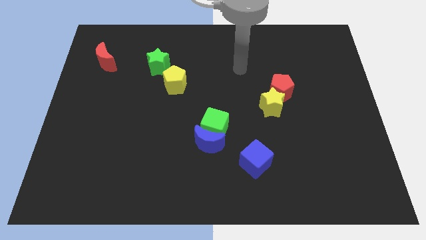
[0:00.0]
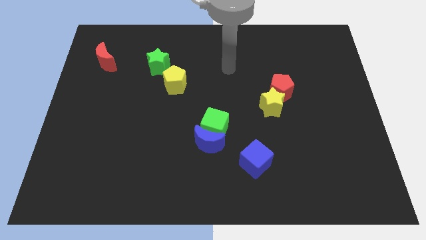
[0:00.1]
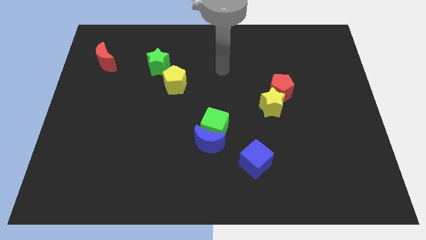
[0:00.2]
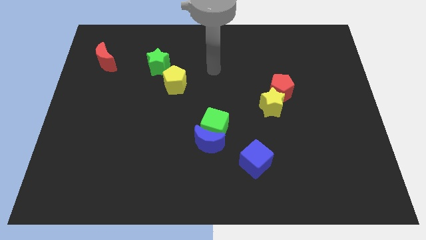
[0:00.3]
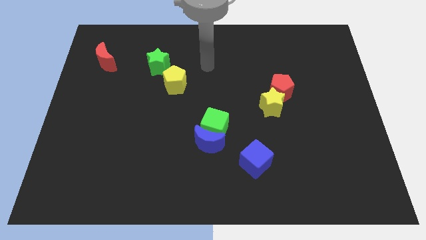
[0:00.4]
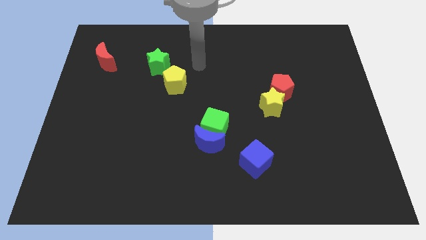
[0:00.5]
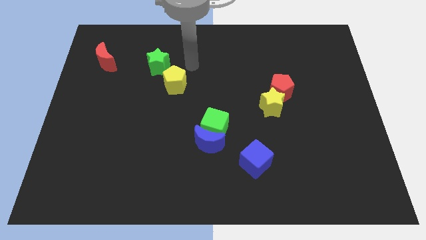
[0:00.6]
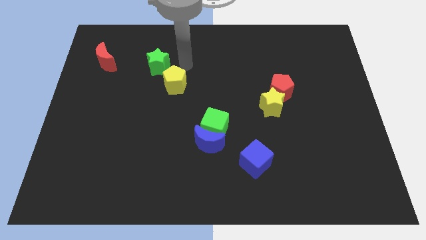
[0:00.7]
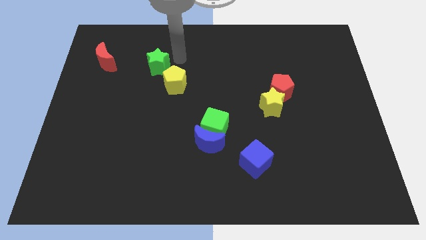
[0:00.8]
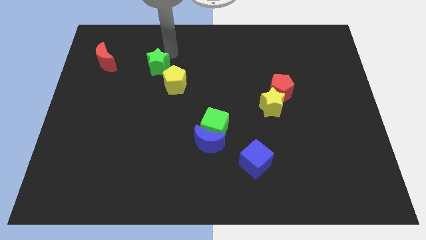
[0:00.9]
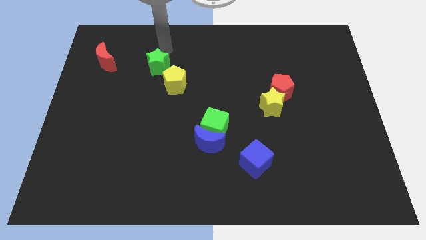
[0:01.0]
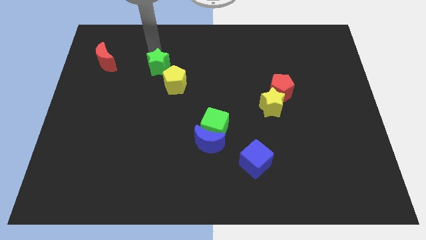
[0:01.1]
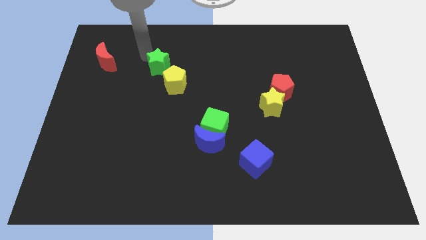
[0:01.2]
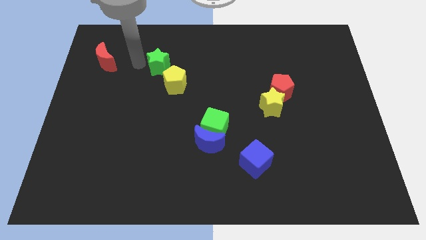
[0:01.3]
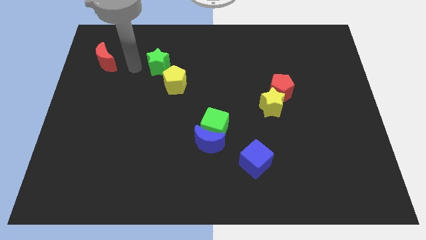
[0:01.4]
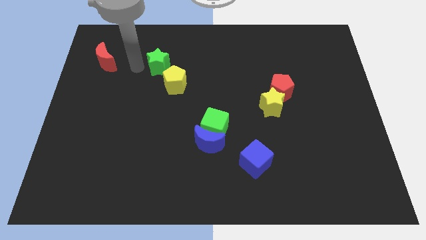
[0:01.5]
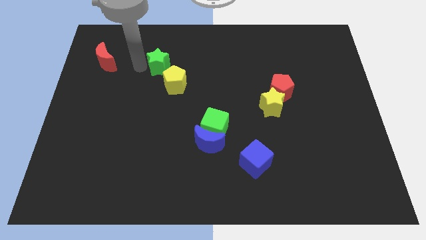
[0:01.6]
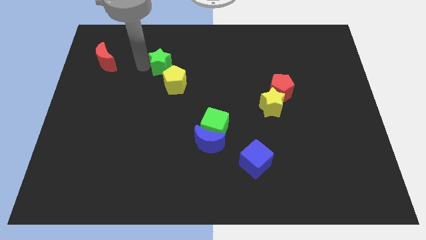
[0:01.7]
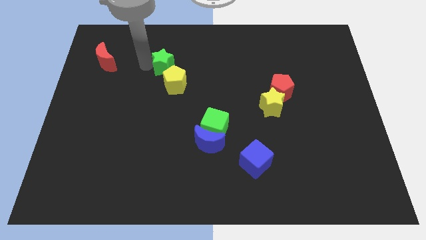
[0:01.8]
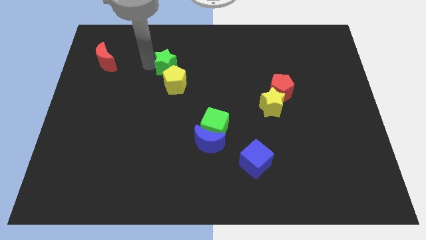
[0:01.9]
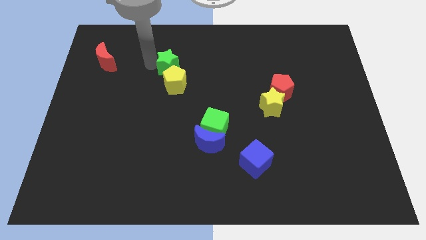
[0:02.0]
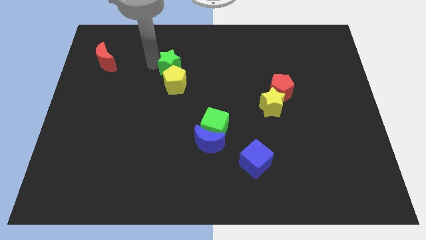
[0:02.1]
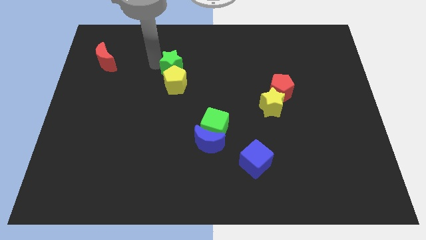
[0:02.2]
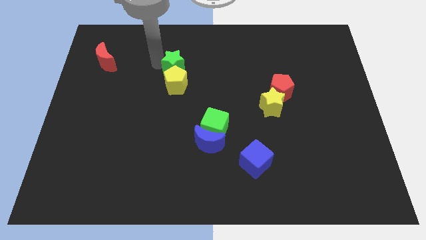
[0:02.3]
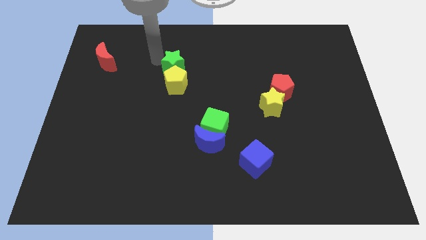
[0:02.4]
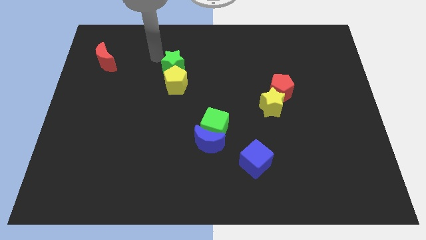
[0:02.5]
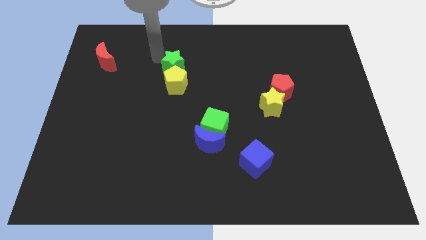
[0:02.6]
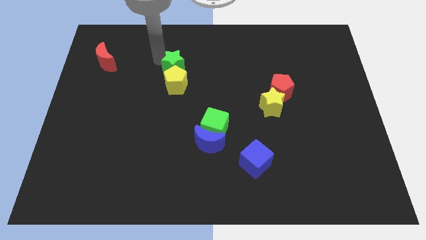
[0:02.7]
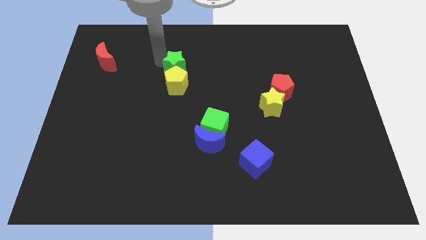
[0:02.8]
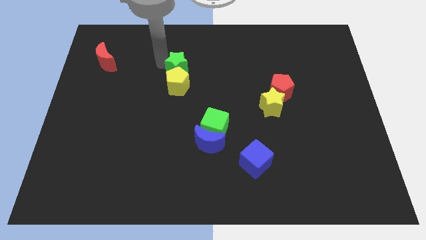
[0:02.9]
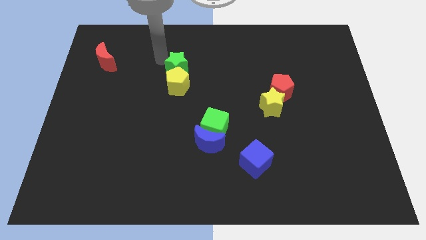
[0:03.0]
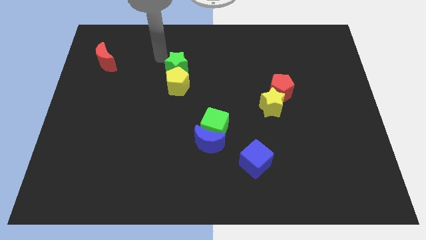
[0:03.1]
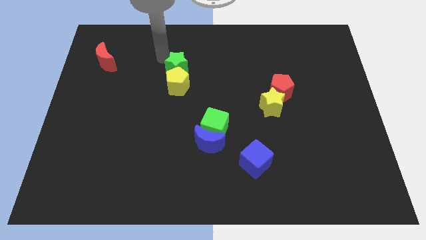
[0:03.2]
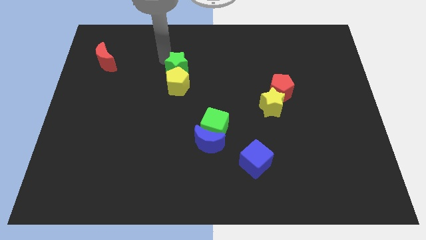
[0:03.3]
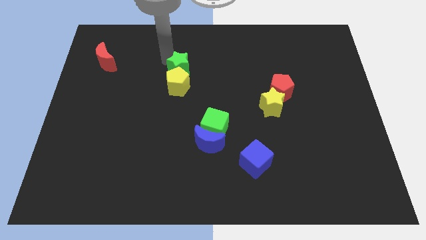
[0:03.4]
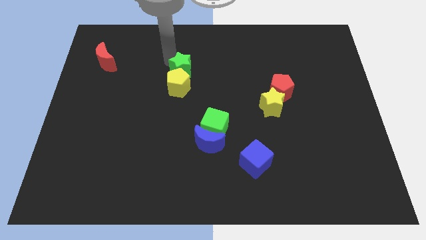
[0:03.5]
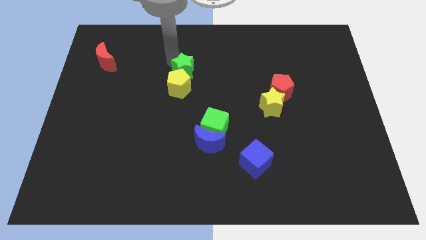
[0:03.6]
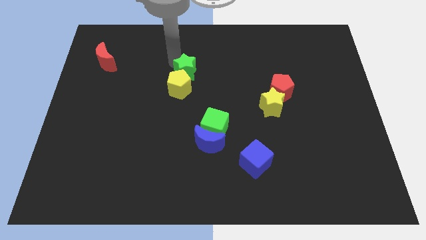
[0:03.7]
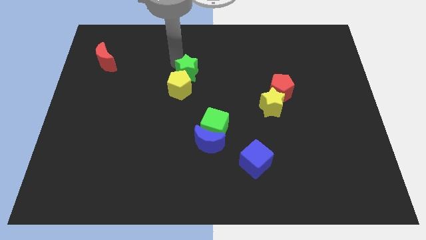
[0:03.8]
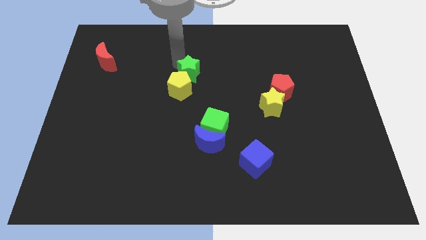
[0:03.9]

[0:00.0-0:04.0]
push the green star downwards and then to the right a bit

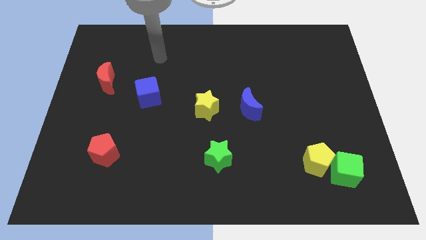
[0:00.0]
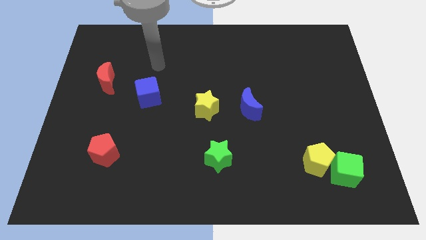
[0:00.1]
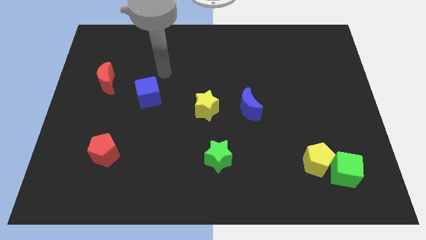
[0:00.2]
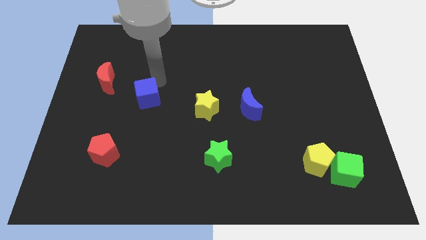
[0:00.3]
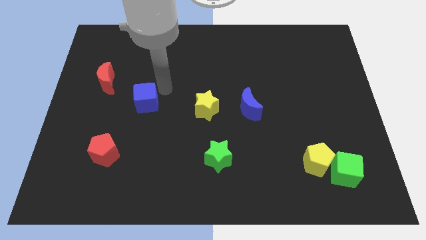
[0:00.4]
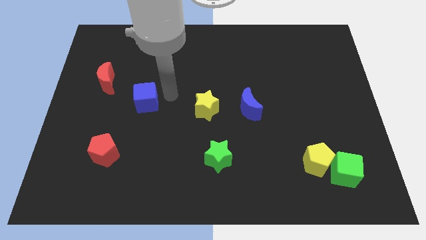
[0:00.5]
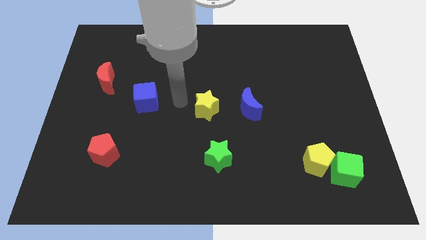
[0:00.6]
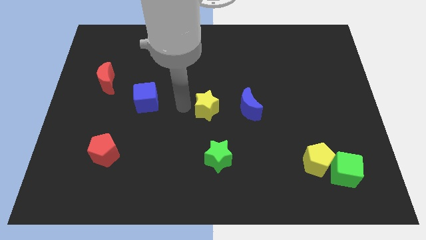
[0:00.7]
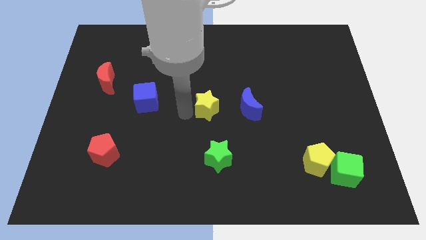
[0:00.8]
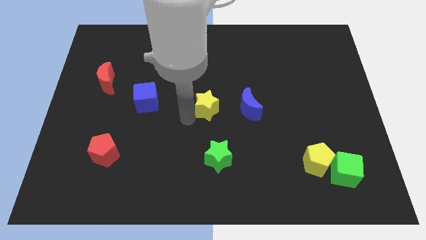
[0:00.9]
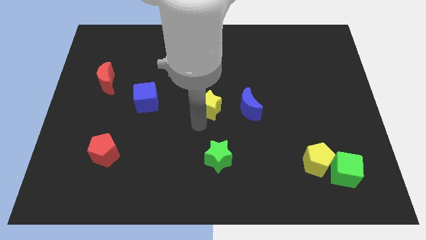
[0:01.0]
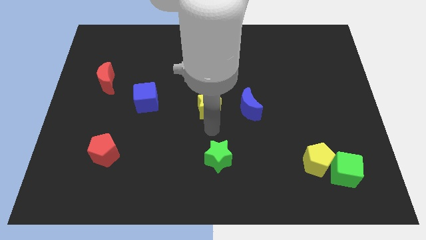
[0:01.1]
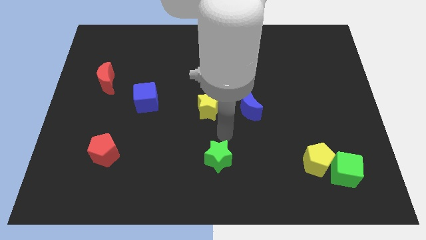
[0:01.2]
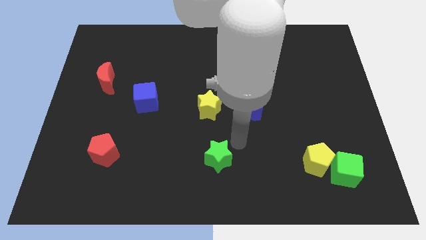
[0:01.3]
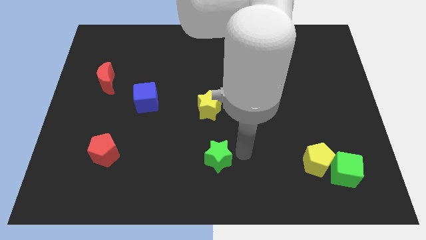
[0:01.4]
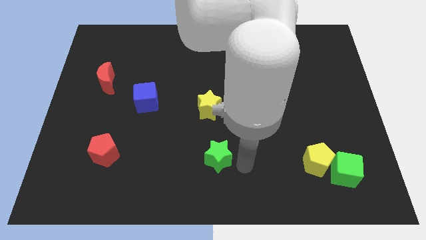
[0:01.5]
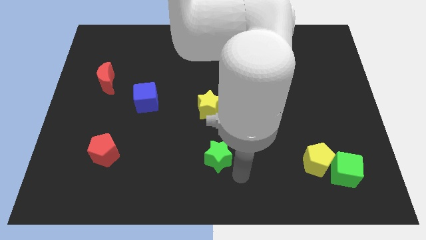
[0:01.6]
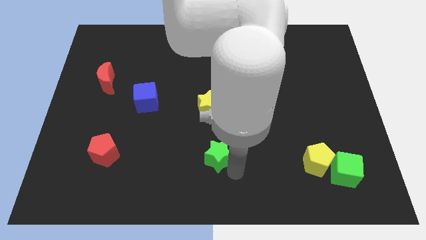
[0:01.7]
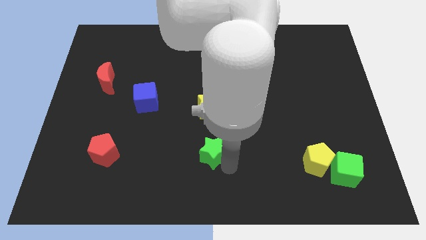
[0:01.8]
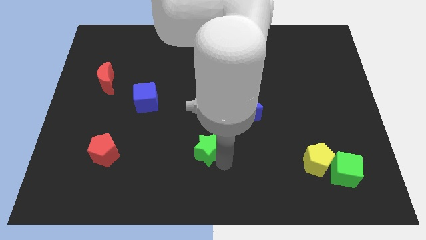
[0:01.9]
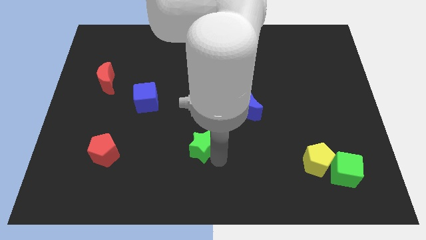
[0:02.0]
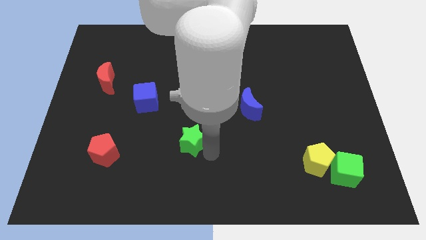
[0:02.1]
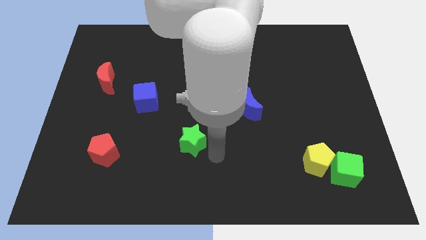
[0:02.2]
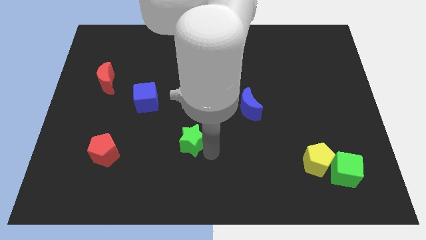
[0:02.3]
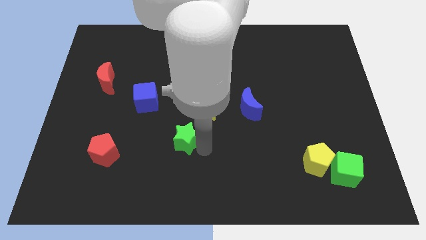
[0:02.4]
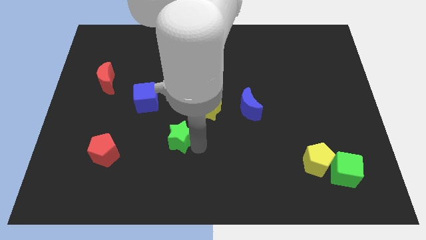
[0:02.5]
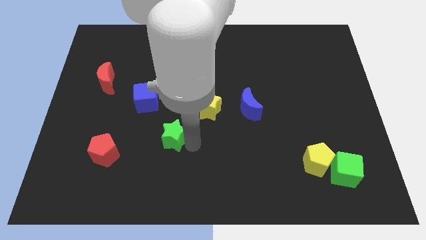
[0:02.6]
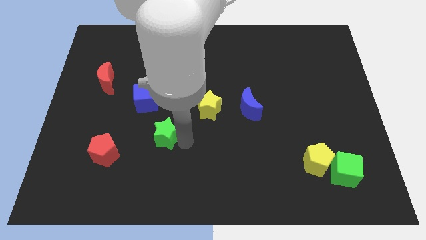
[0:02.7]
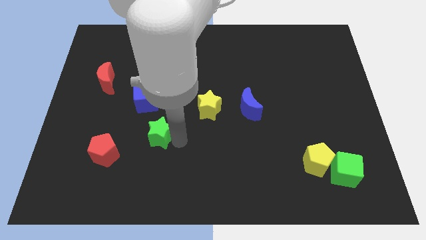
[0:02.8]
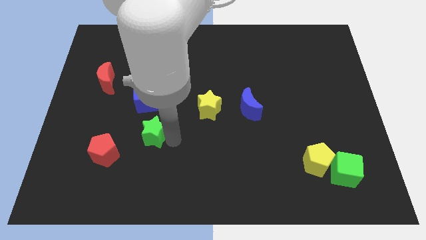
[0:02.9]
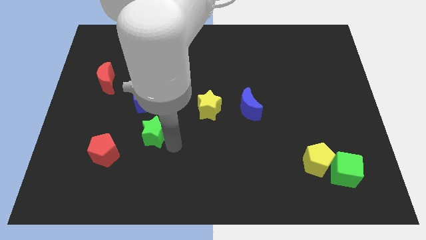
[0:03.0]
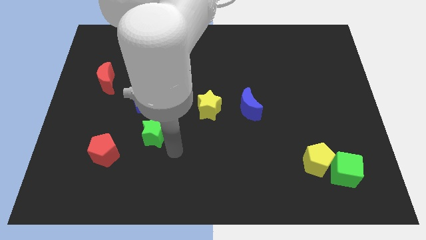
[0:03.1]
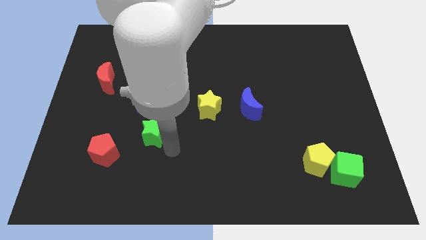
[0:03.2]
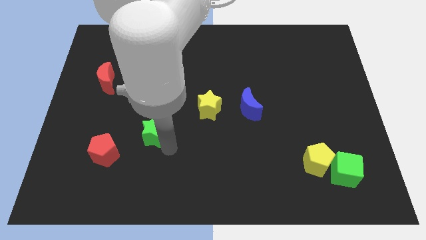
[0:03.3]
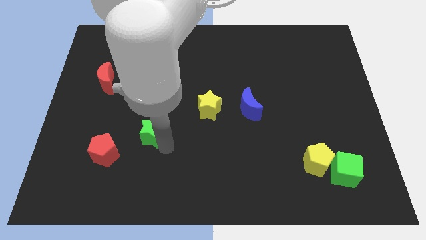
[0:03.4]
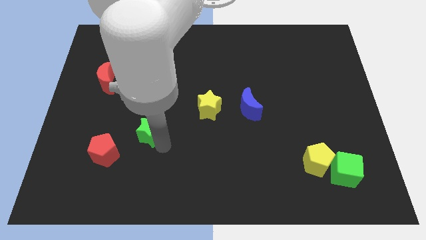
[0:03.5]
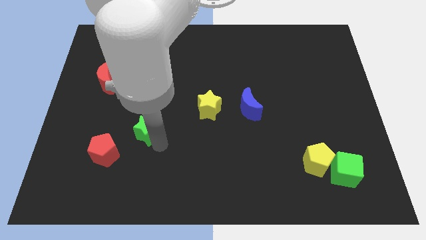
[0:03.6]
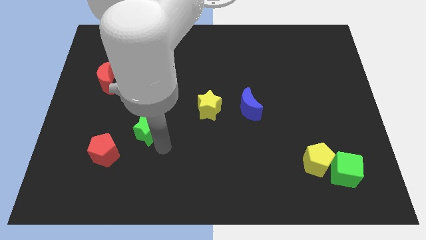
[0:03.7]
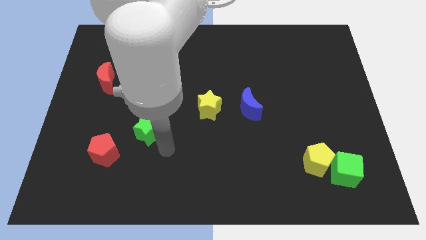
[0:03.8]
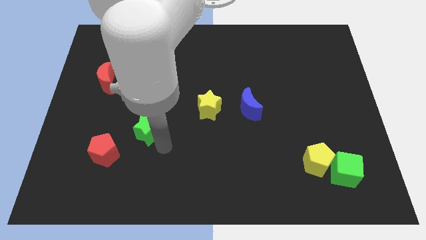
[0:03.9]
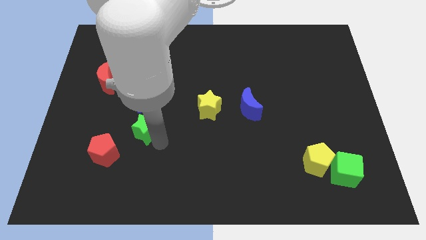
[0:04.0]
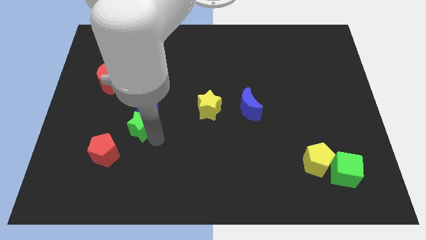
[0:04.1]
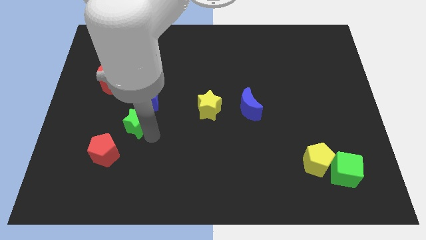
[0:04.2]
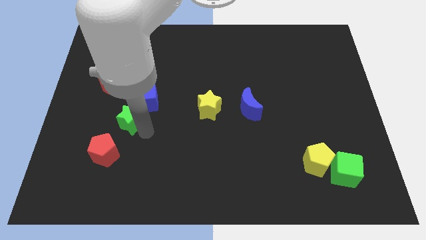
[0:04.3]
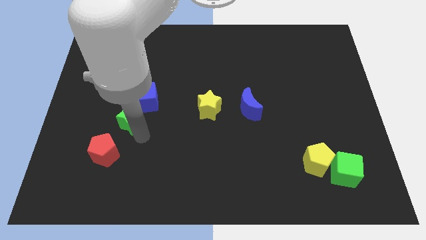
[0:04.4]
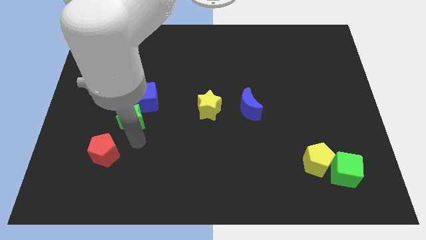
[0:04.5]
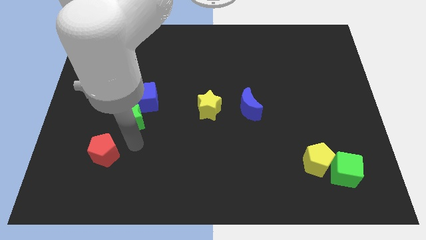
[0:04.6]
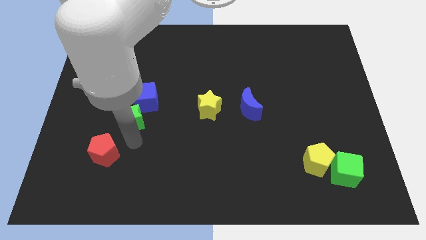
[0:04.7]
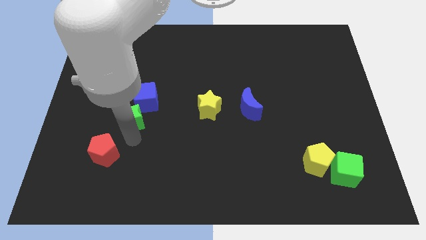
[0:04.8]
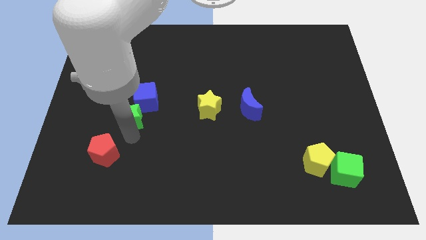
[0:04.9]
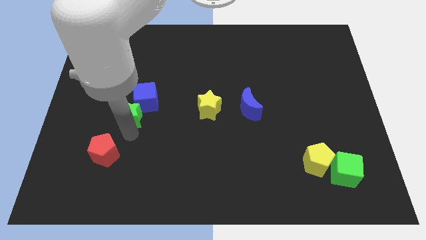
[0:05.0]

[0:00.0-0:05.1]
push the green star diagonally upwards and left
